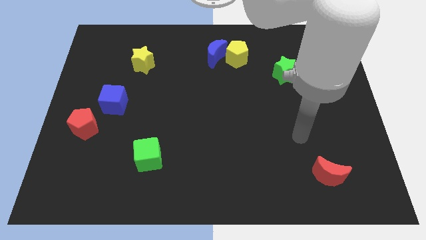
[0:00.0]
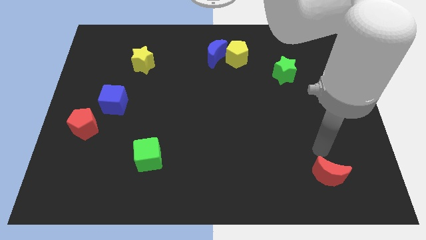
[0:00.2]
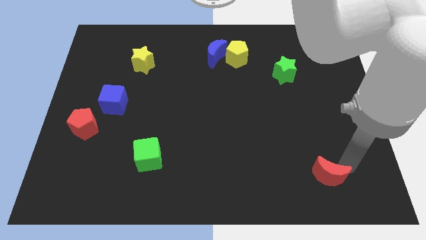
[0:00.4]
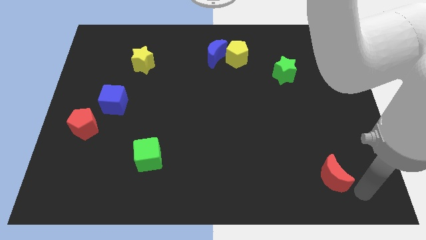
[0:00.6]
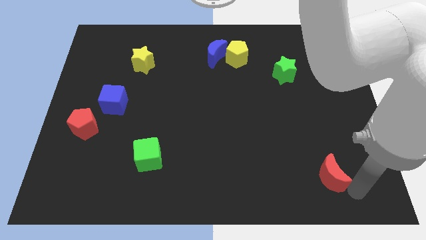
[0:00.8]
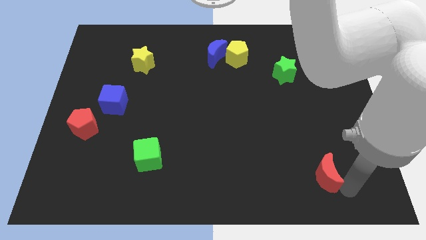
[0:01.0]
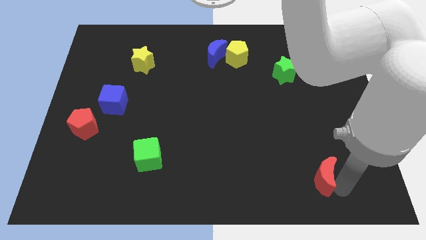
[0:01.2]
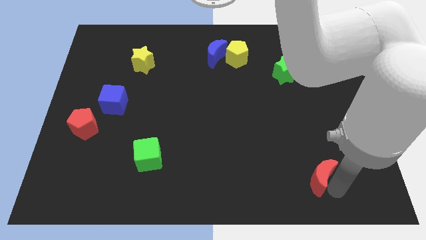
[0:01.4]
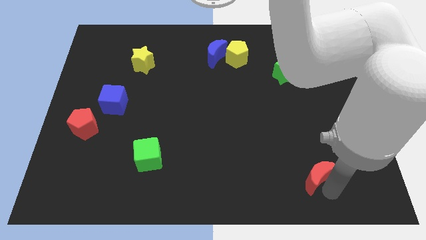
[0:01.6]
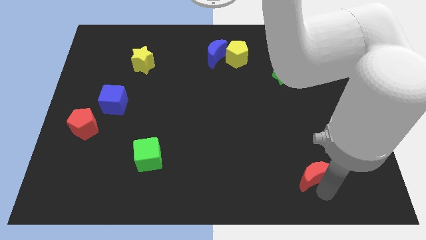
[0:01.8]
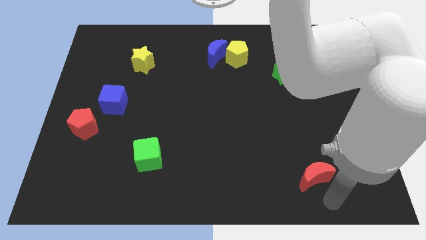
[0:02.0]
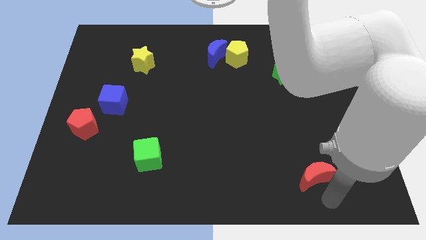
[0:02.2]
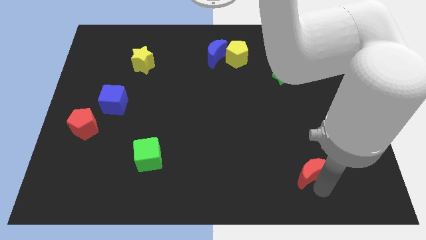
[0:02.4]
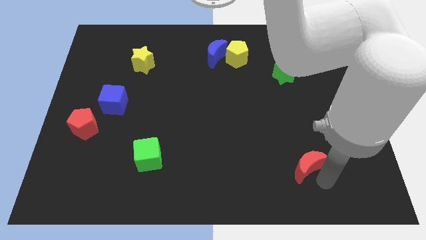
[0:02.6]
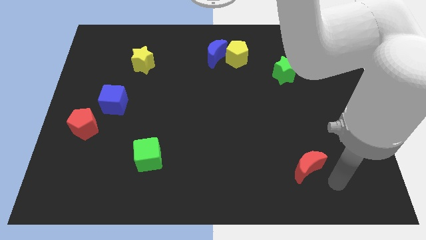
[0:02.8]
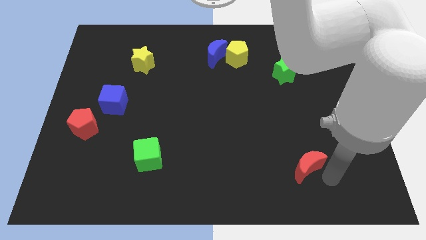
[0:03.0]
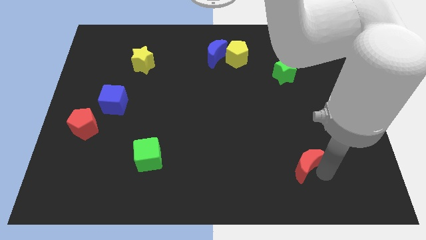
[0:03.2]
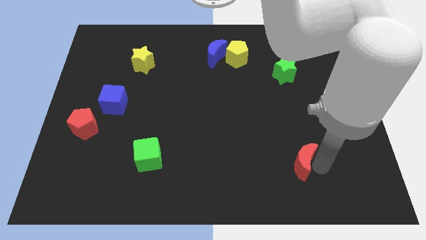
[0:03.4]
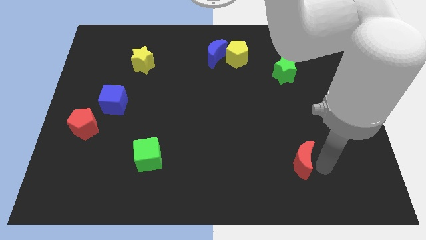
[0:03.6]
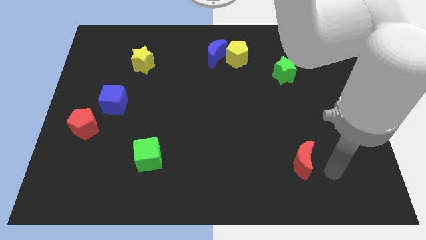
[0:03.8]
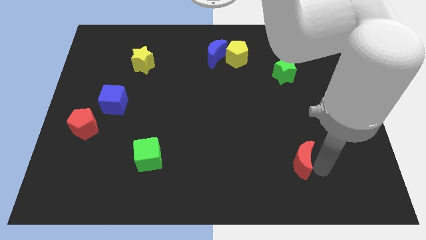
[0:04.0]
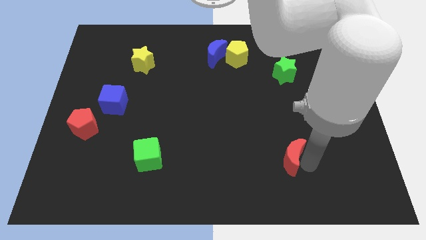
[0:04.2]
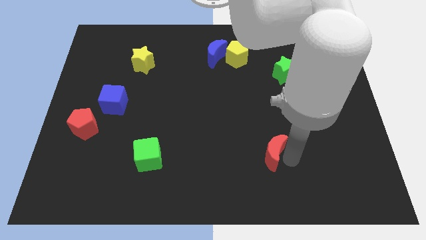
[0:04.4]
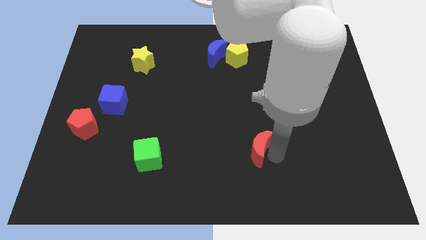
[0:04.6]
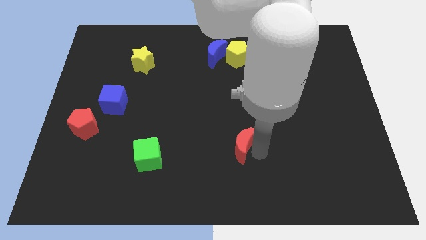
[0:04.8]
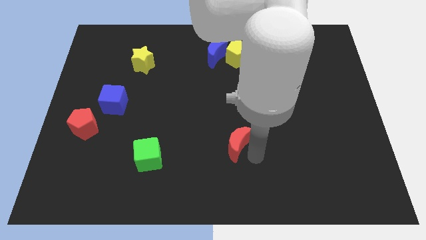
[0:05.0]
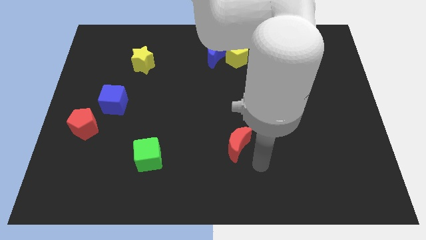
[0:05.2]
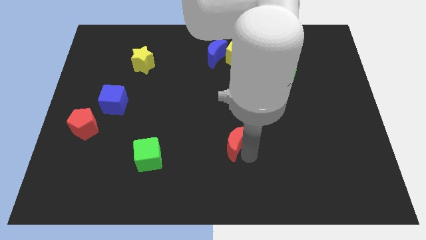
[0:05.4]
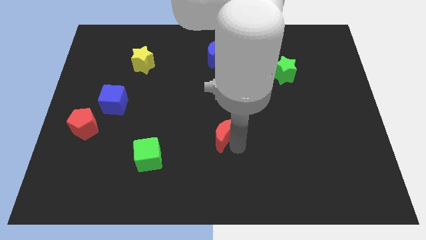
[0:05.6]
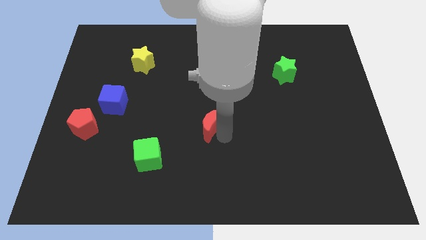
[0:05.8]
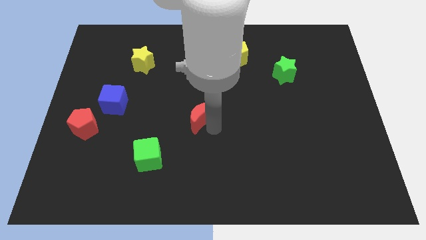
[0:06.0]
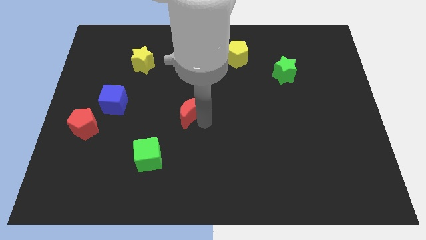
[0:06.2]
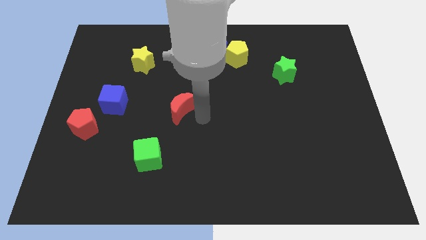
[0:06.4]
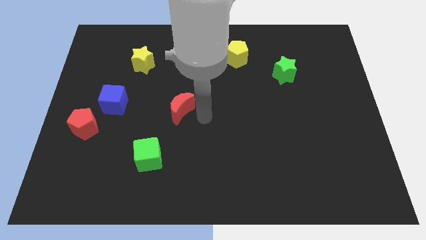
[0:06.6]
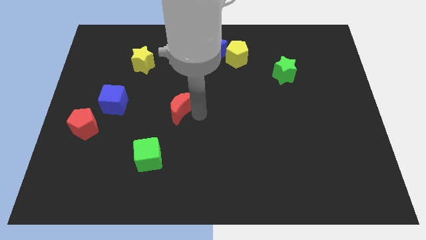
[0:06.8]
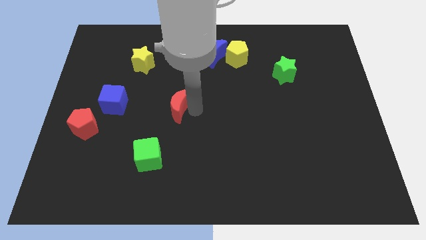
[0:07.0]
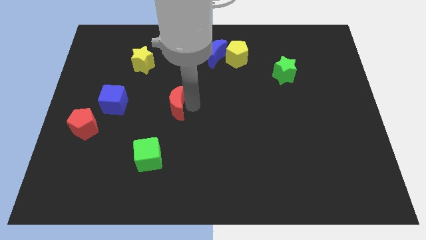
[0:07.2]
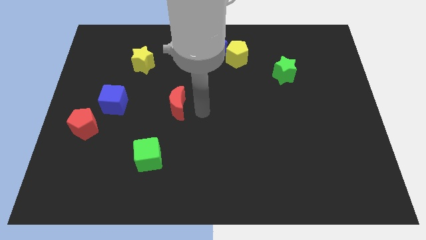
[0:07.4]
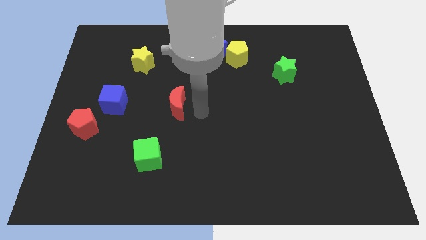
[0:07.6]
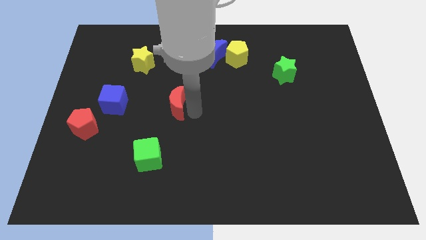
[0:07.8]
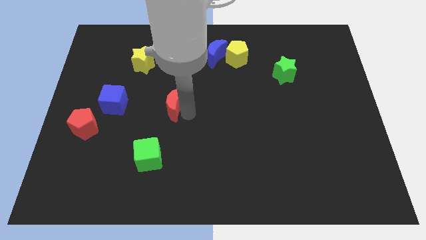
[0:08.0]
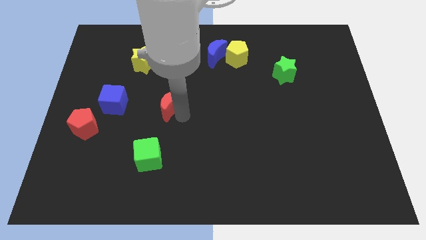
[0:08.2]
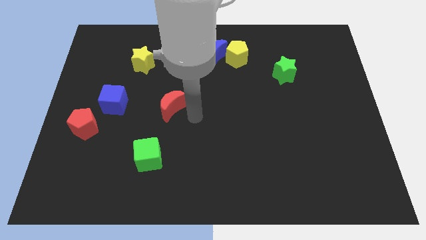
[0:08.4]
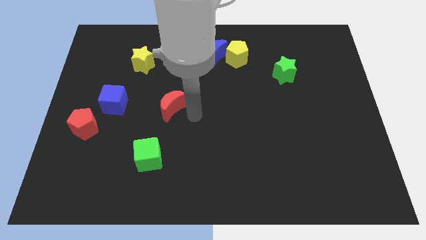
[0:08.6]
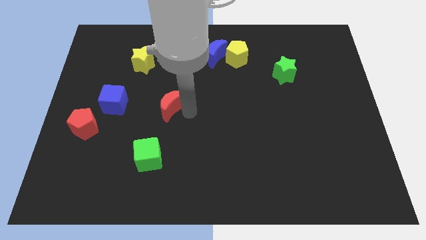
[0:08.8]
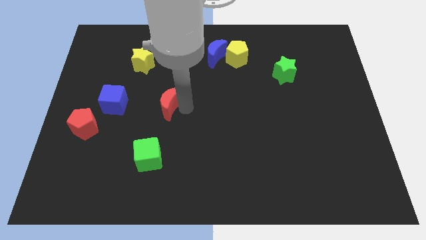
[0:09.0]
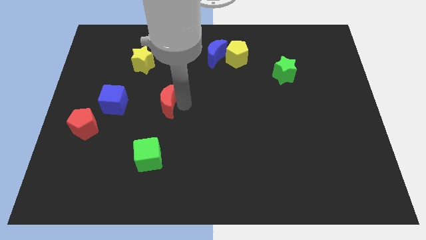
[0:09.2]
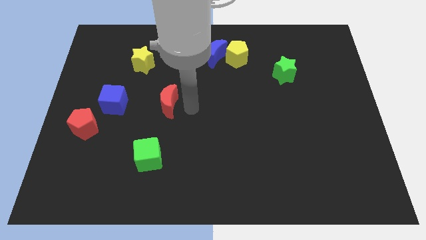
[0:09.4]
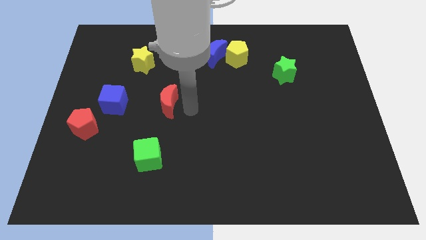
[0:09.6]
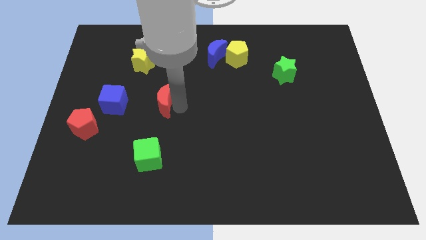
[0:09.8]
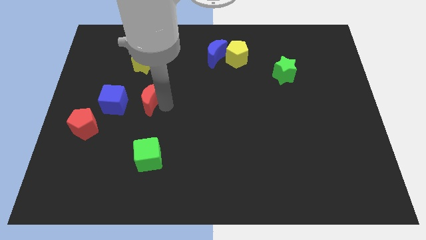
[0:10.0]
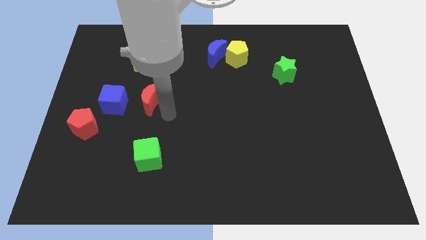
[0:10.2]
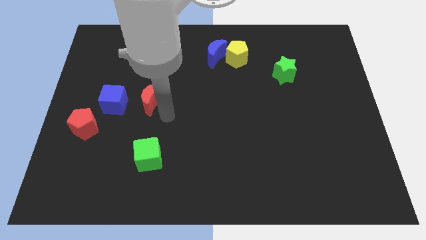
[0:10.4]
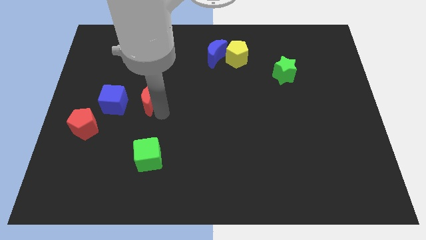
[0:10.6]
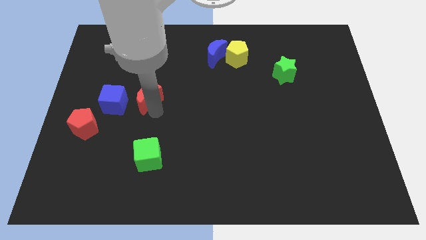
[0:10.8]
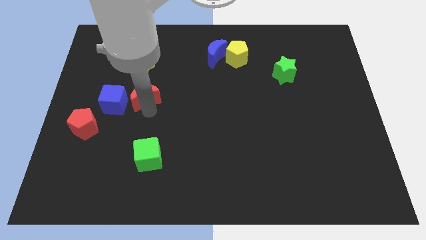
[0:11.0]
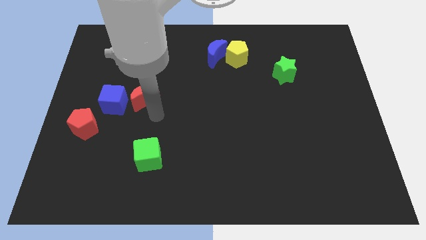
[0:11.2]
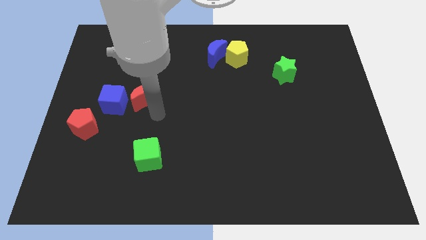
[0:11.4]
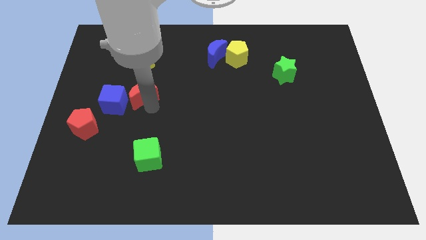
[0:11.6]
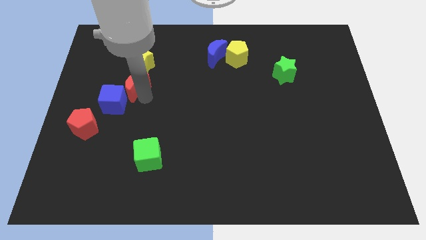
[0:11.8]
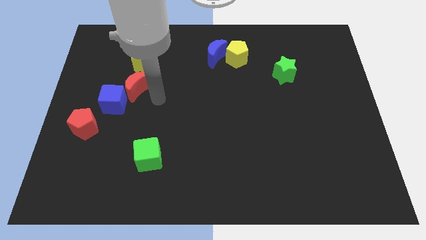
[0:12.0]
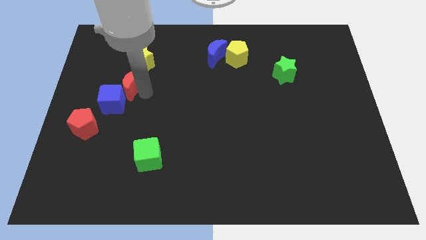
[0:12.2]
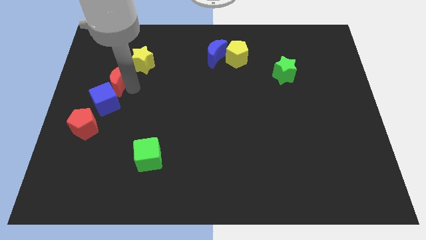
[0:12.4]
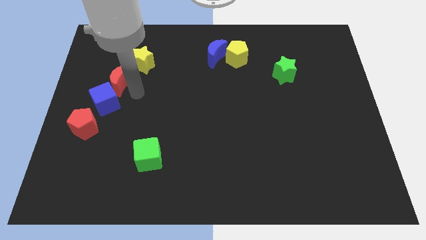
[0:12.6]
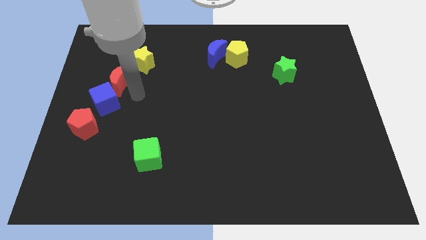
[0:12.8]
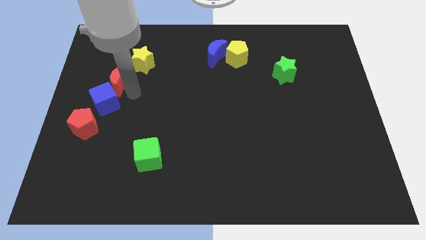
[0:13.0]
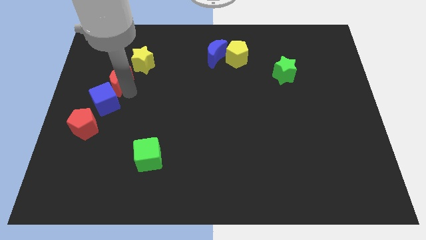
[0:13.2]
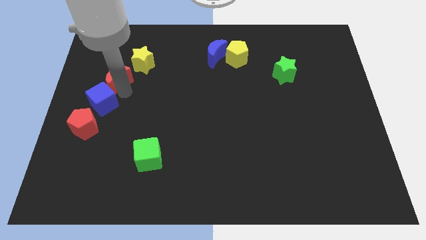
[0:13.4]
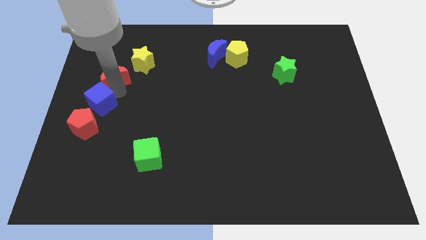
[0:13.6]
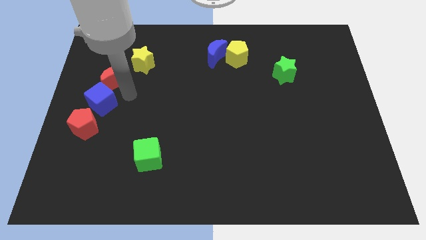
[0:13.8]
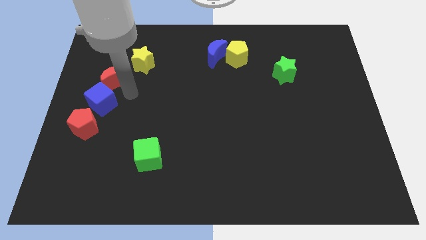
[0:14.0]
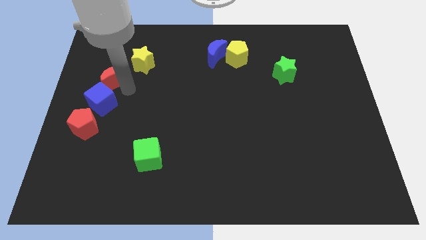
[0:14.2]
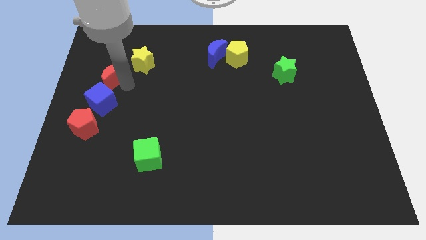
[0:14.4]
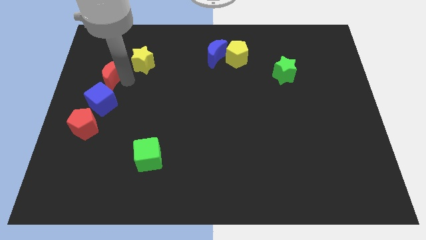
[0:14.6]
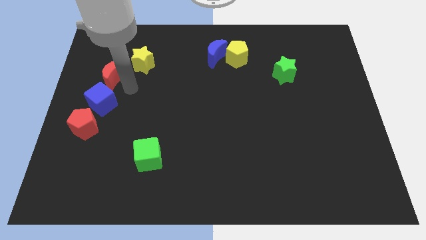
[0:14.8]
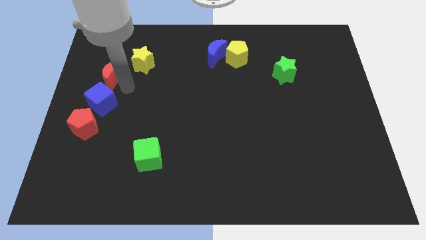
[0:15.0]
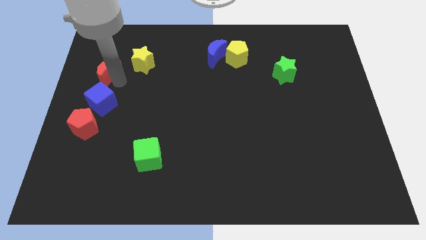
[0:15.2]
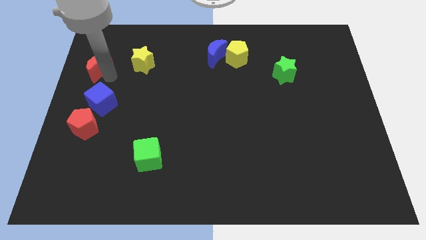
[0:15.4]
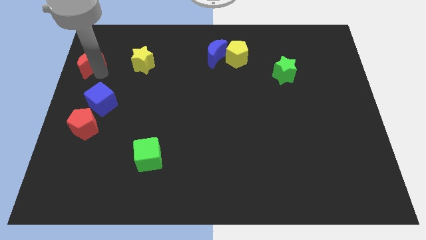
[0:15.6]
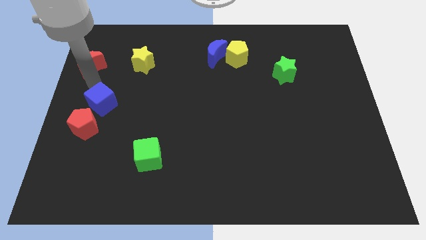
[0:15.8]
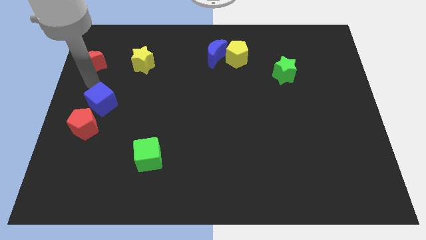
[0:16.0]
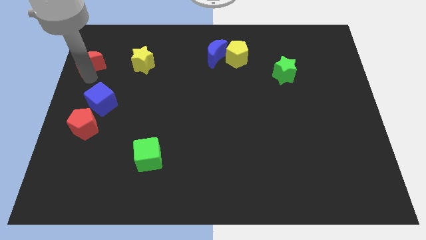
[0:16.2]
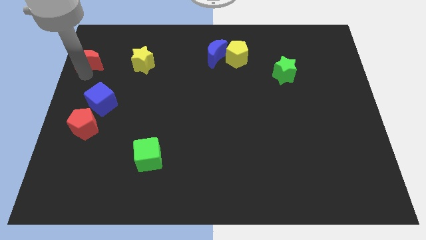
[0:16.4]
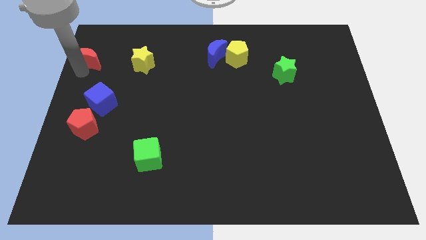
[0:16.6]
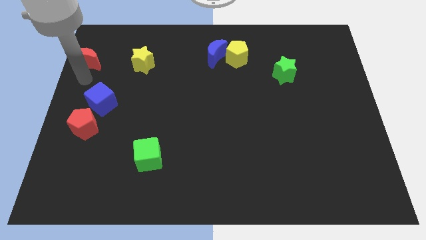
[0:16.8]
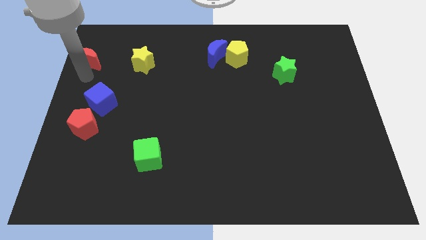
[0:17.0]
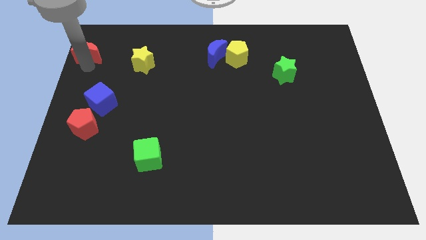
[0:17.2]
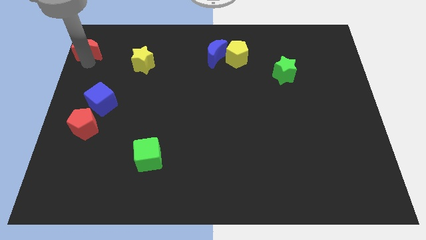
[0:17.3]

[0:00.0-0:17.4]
move the red moon to the top left corner
